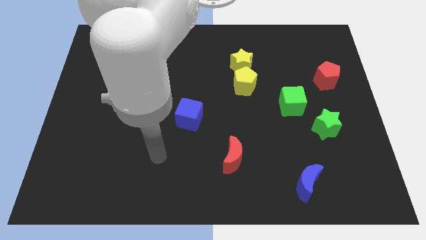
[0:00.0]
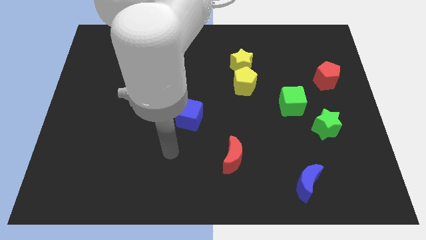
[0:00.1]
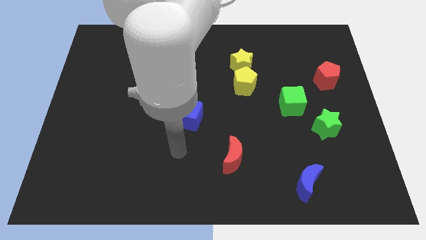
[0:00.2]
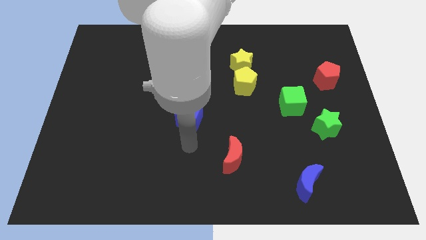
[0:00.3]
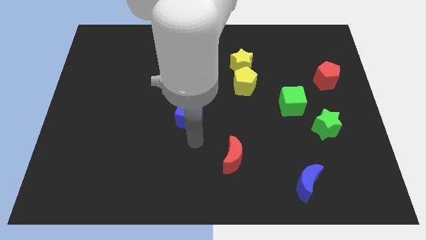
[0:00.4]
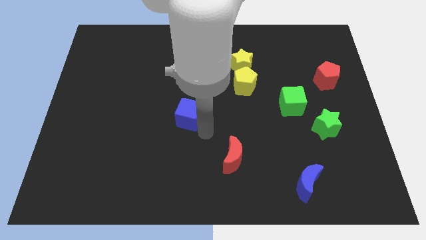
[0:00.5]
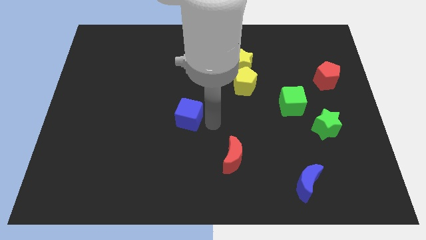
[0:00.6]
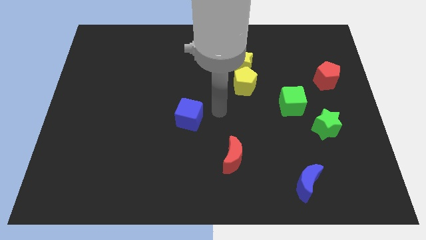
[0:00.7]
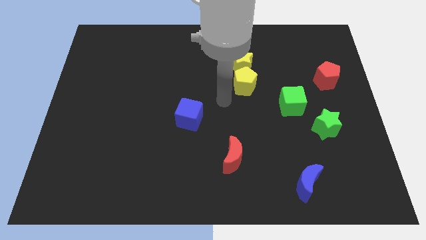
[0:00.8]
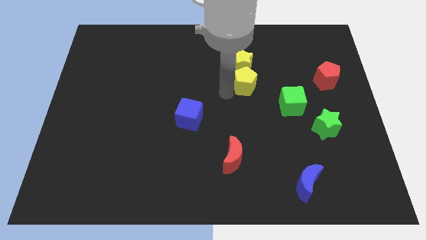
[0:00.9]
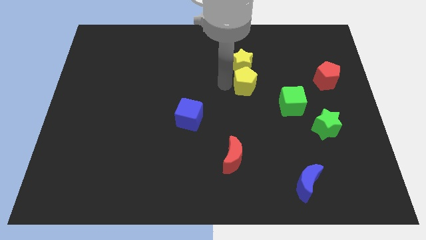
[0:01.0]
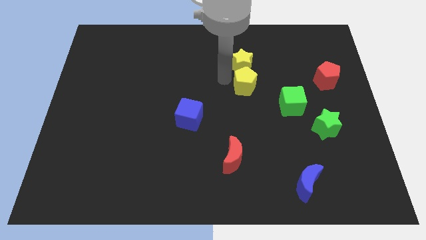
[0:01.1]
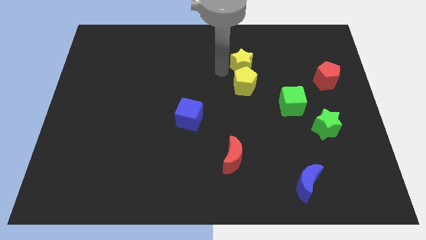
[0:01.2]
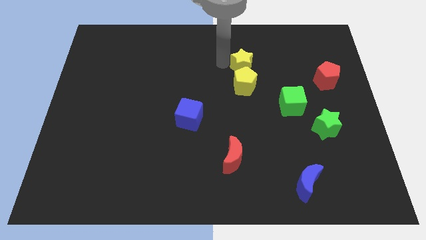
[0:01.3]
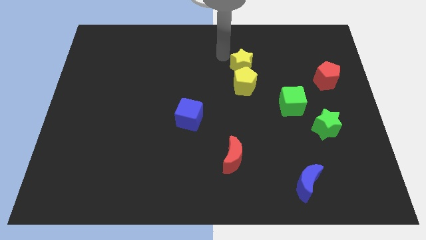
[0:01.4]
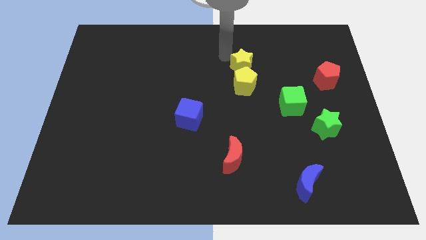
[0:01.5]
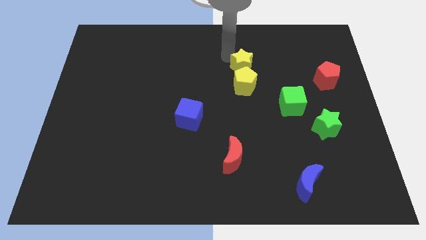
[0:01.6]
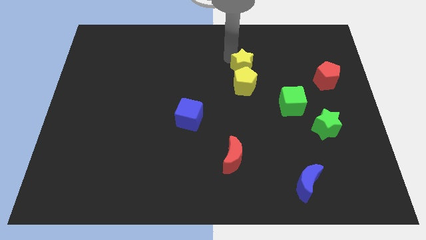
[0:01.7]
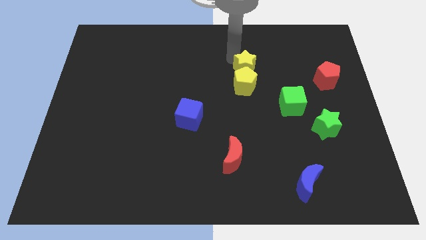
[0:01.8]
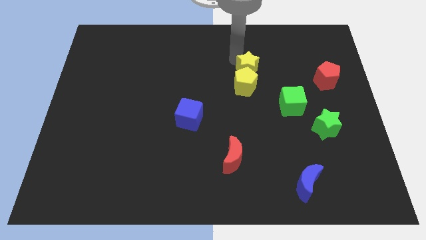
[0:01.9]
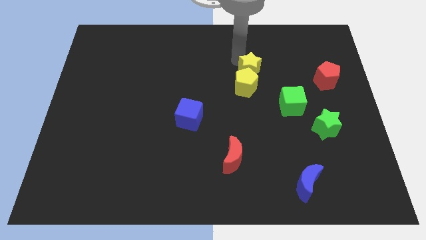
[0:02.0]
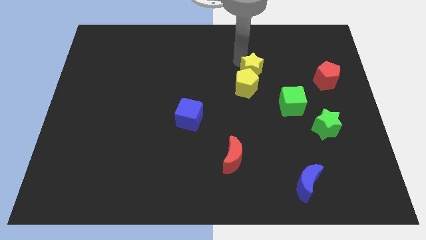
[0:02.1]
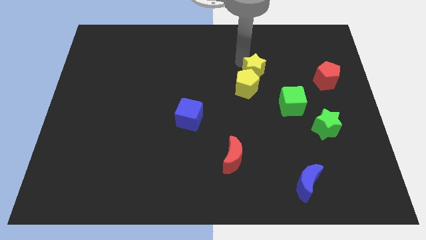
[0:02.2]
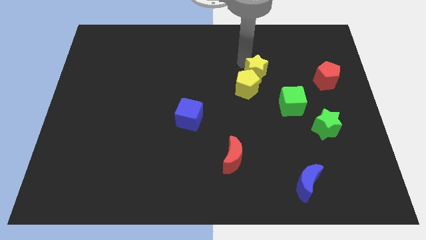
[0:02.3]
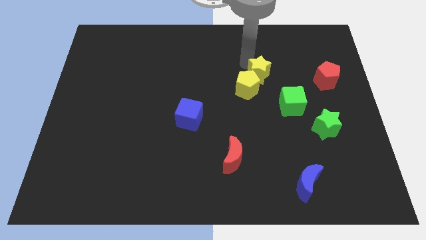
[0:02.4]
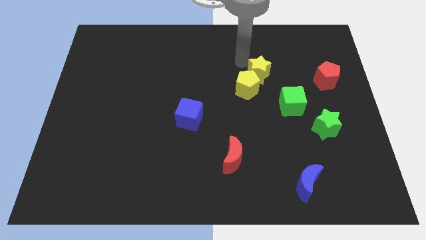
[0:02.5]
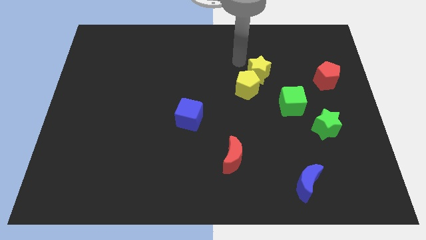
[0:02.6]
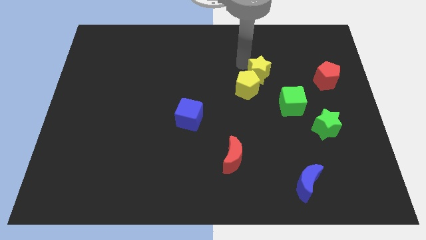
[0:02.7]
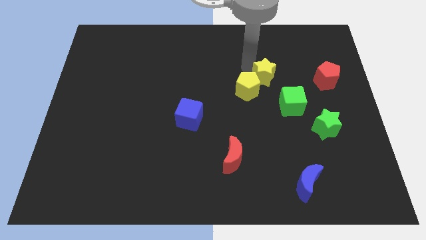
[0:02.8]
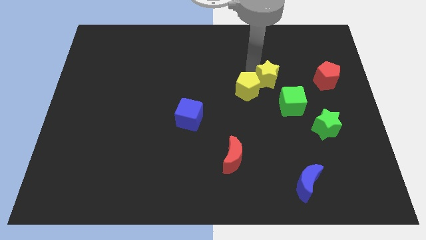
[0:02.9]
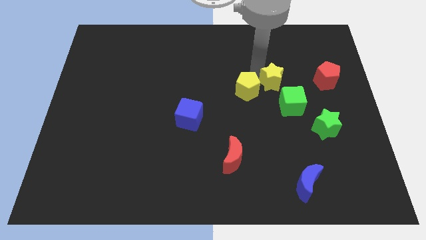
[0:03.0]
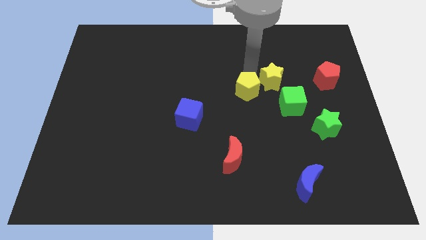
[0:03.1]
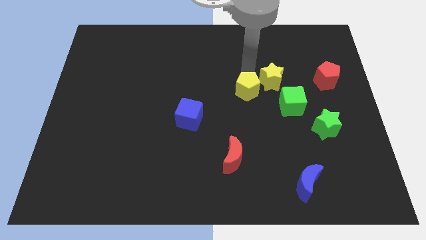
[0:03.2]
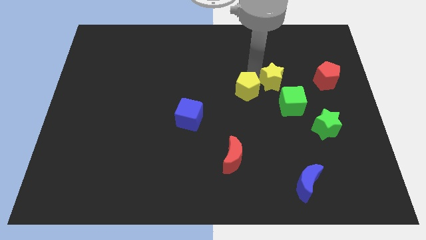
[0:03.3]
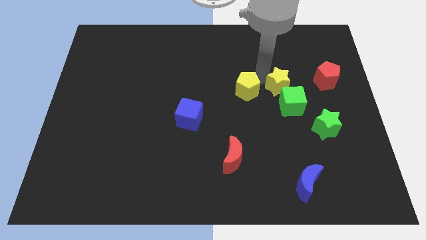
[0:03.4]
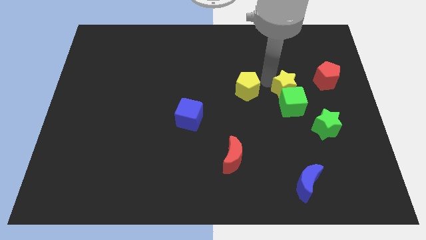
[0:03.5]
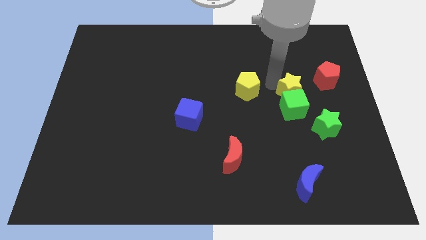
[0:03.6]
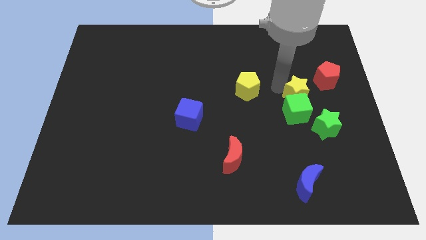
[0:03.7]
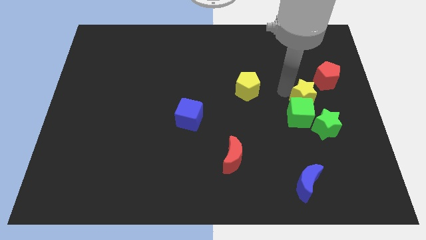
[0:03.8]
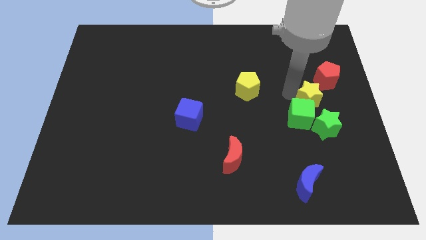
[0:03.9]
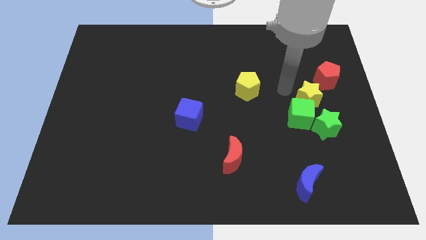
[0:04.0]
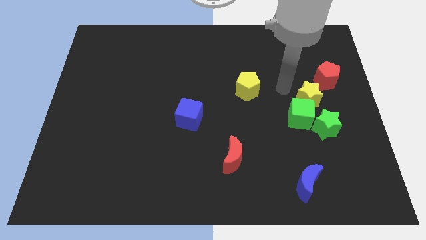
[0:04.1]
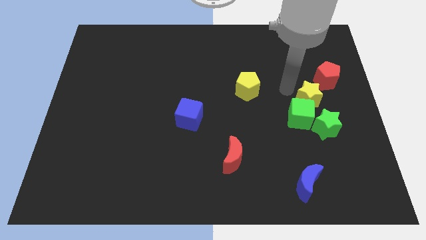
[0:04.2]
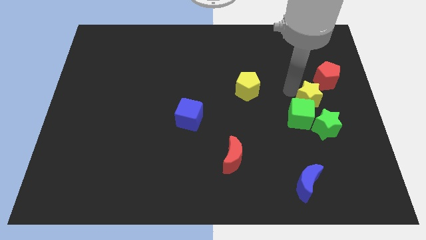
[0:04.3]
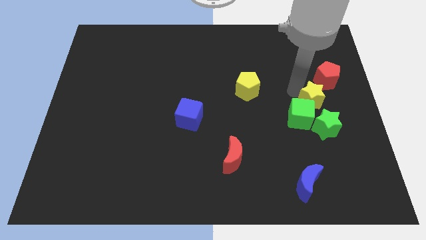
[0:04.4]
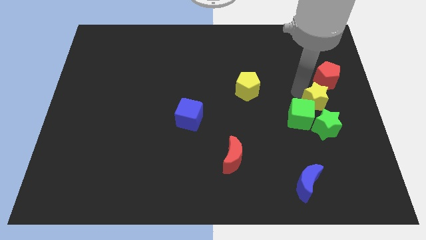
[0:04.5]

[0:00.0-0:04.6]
slide the yellow star right of the green cube

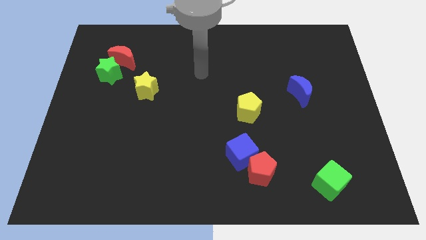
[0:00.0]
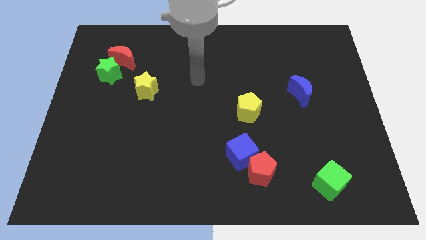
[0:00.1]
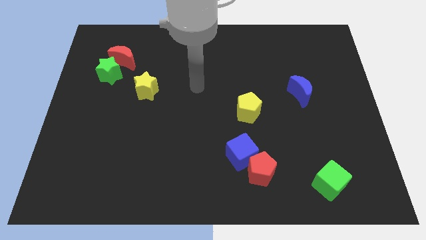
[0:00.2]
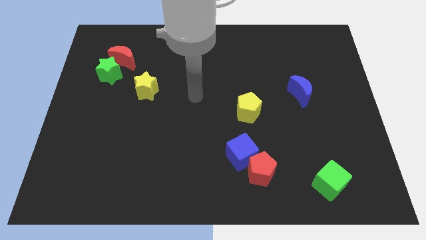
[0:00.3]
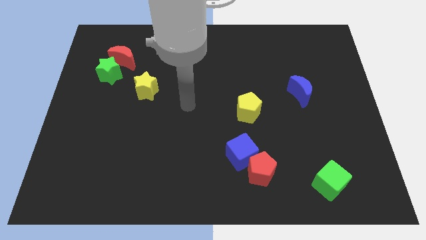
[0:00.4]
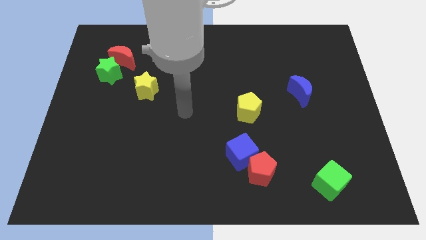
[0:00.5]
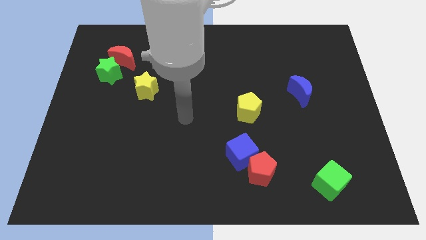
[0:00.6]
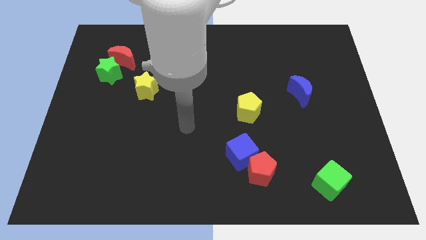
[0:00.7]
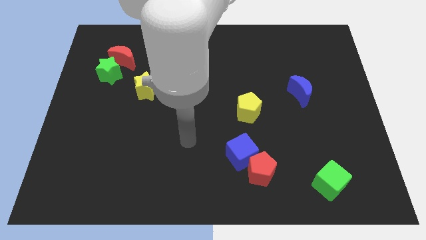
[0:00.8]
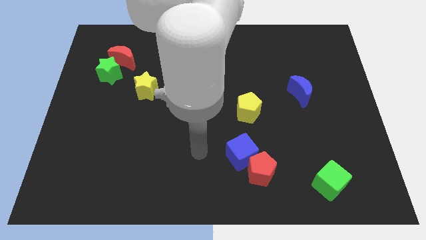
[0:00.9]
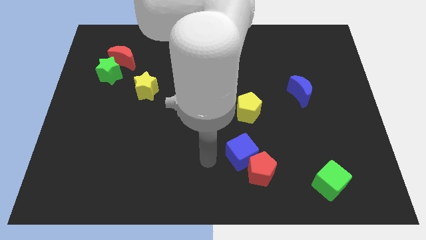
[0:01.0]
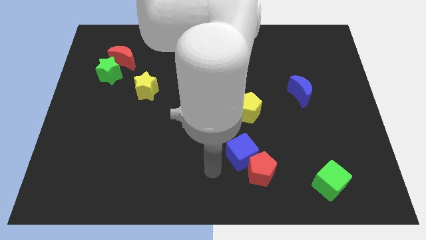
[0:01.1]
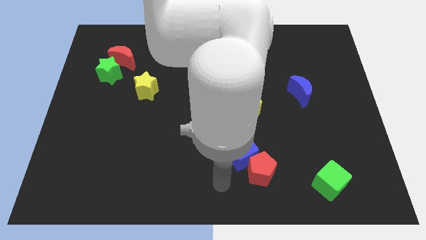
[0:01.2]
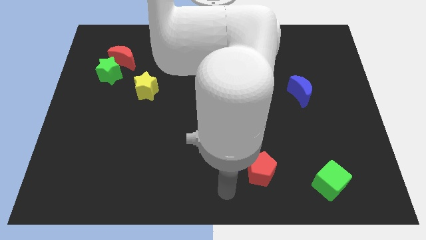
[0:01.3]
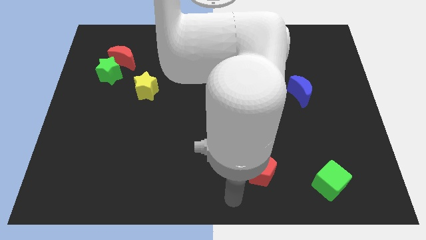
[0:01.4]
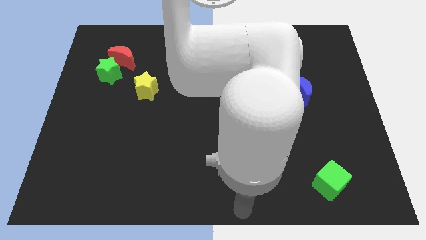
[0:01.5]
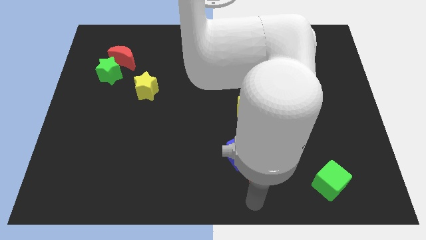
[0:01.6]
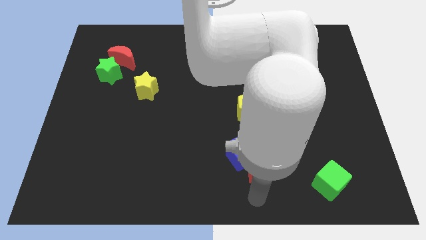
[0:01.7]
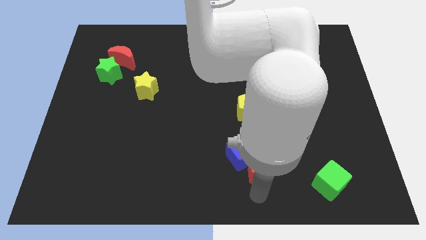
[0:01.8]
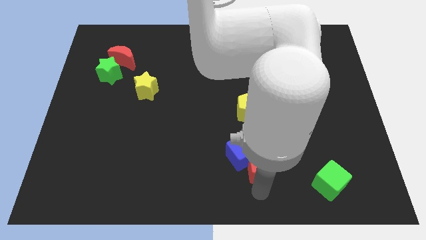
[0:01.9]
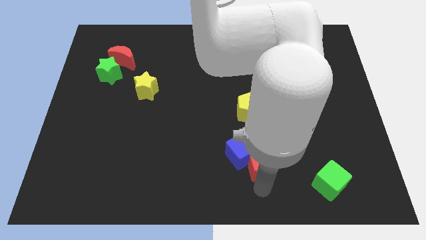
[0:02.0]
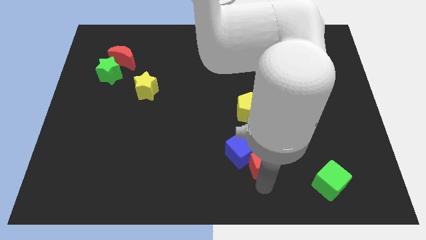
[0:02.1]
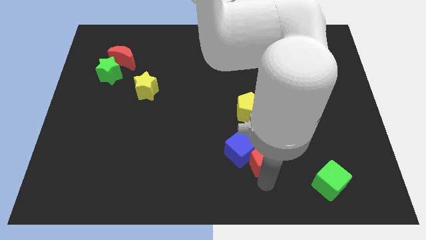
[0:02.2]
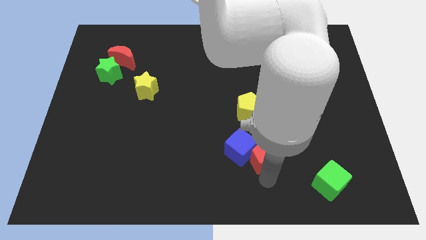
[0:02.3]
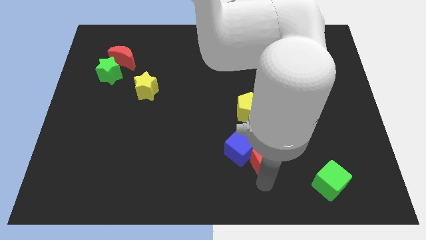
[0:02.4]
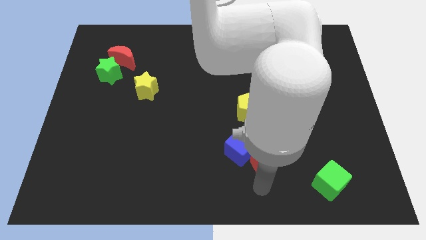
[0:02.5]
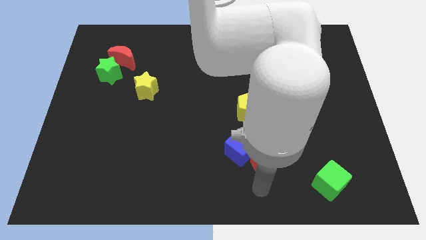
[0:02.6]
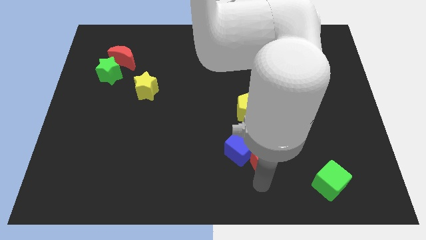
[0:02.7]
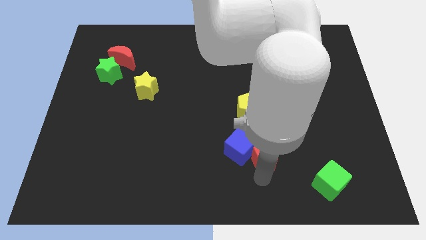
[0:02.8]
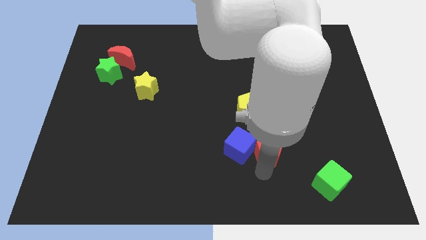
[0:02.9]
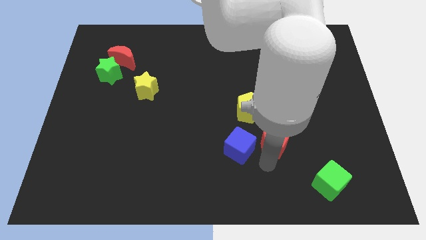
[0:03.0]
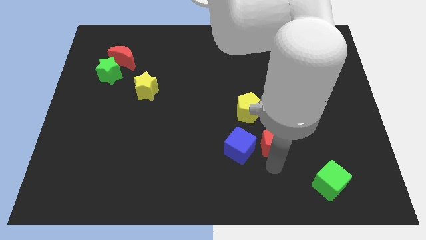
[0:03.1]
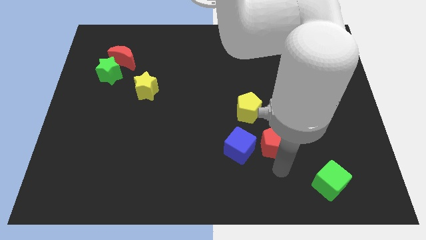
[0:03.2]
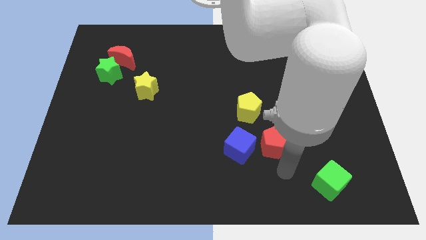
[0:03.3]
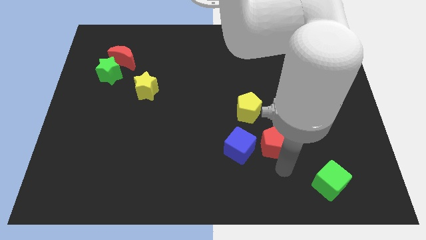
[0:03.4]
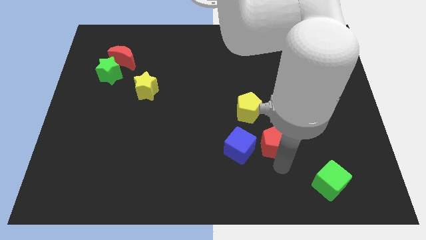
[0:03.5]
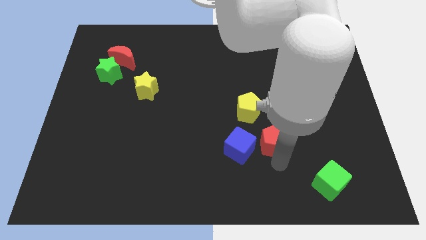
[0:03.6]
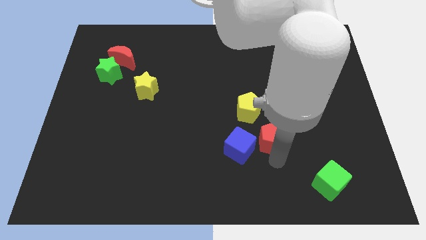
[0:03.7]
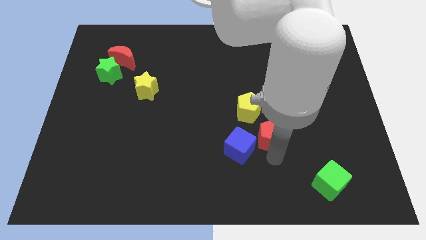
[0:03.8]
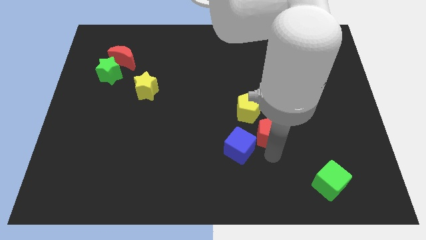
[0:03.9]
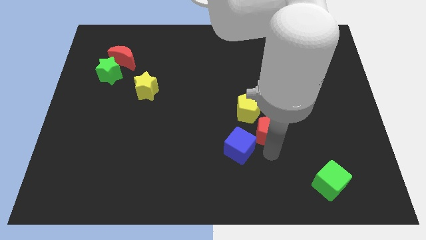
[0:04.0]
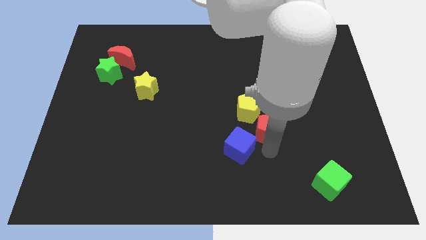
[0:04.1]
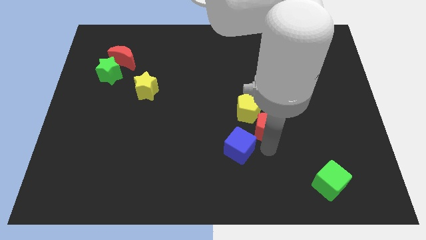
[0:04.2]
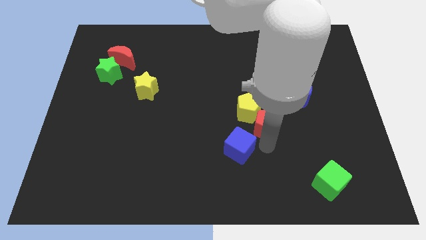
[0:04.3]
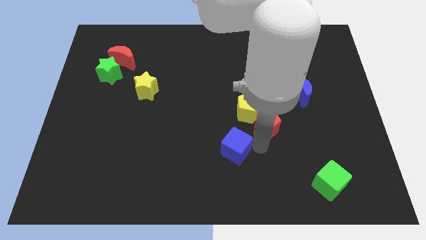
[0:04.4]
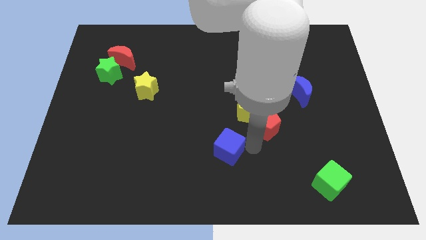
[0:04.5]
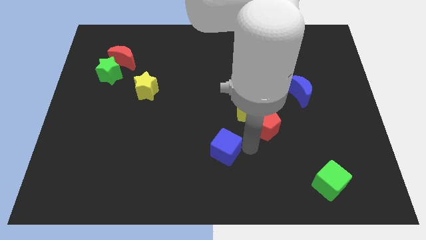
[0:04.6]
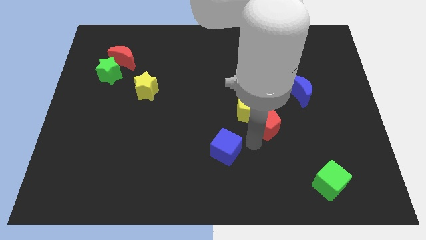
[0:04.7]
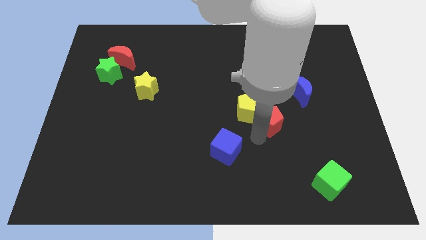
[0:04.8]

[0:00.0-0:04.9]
slide the red pentagon diagonally down and to the left of the blue moon
